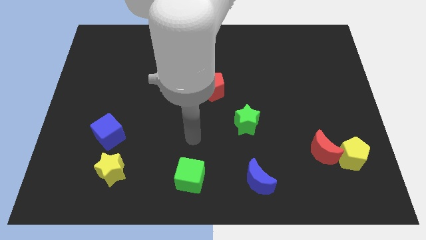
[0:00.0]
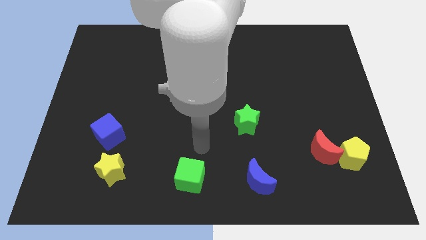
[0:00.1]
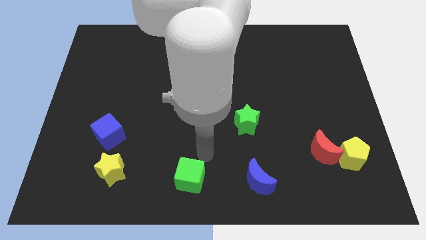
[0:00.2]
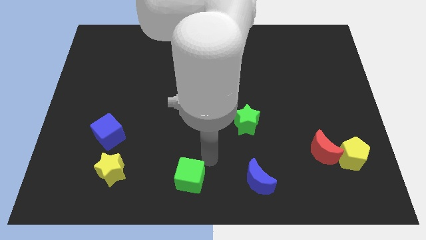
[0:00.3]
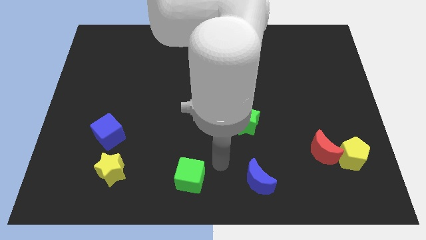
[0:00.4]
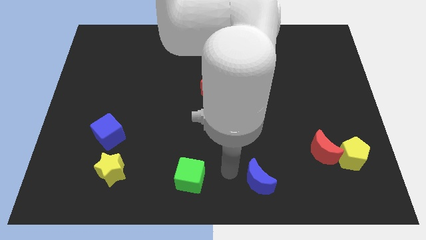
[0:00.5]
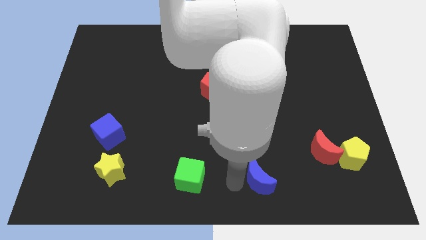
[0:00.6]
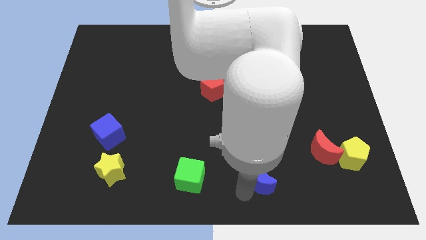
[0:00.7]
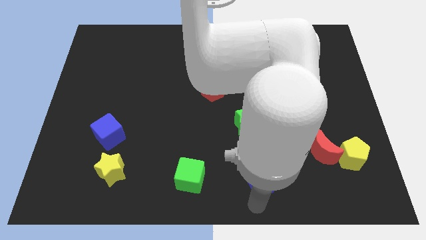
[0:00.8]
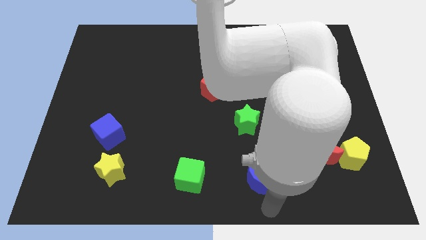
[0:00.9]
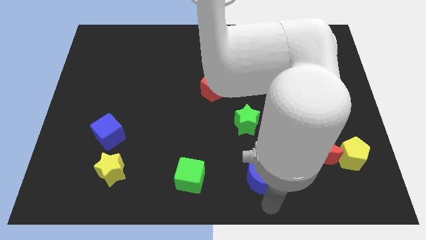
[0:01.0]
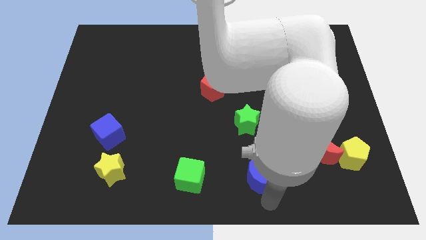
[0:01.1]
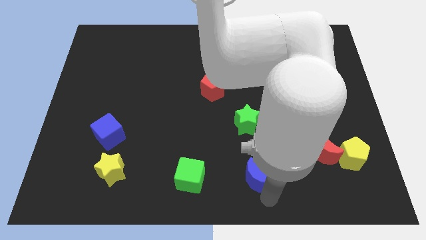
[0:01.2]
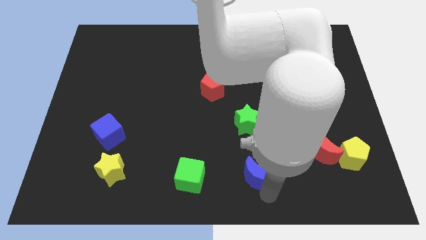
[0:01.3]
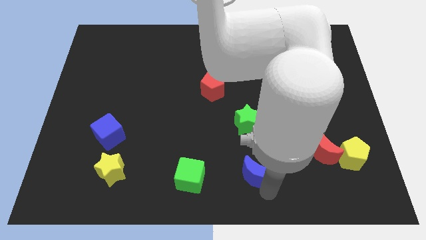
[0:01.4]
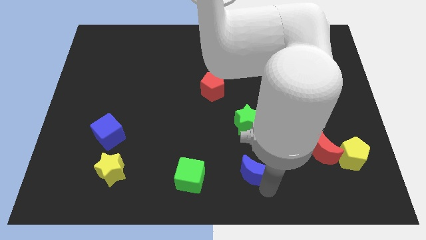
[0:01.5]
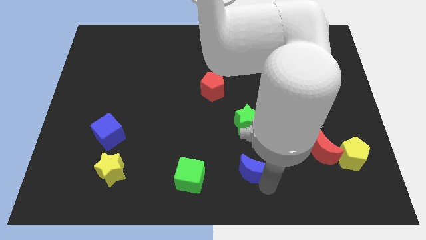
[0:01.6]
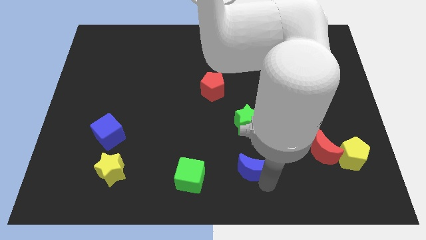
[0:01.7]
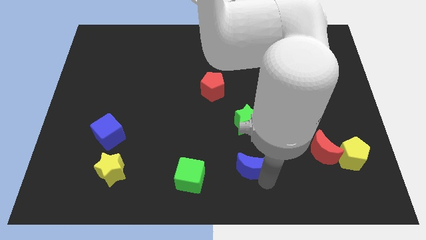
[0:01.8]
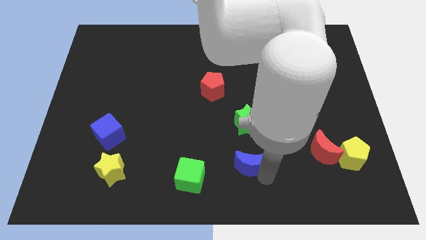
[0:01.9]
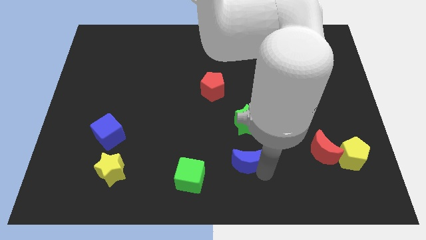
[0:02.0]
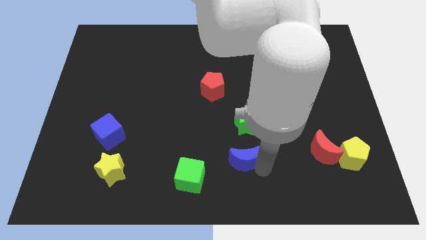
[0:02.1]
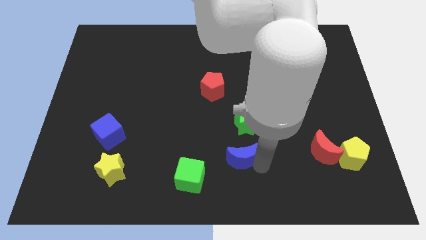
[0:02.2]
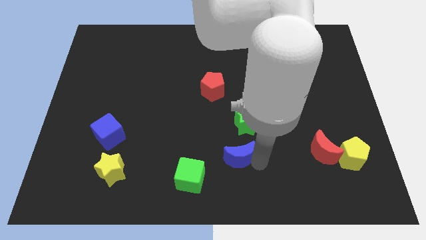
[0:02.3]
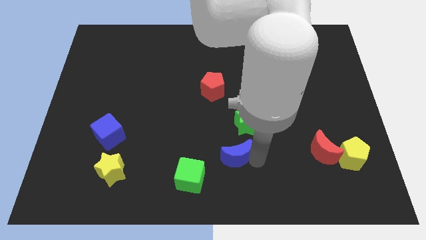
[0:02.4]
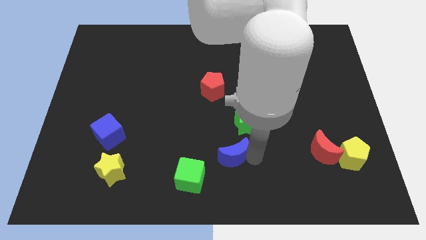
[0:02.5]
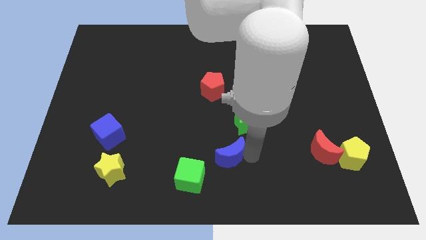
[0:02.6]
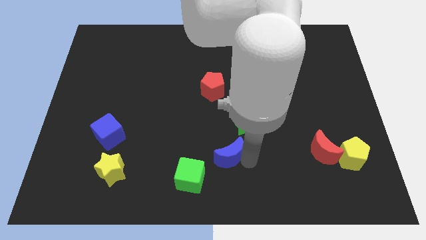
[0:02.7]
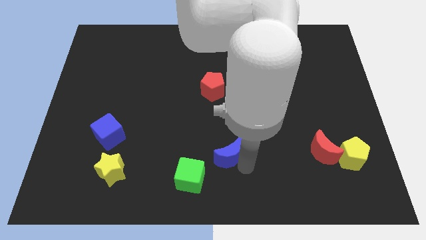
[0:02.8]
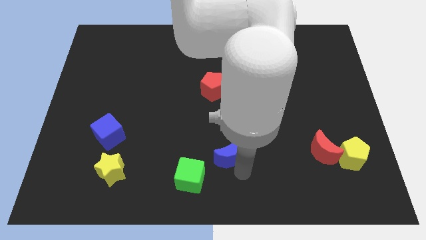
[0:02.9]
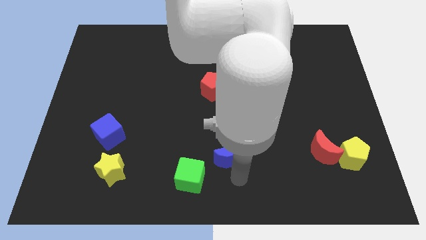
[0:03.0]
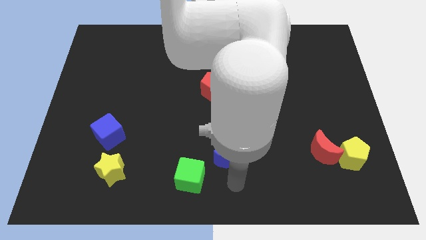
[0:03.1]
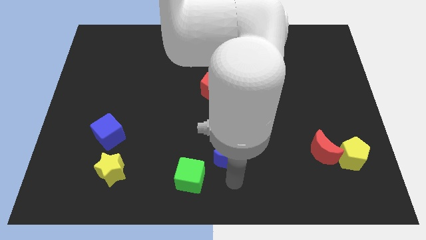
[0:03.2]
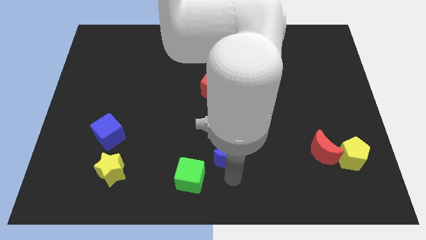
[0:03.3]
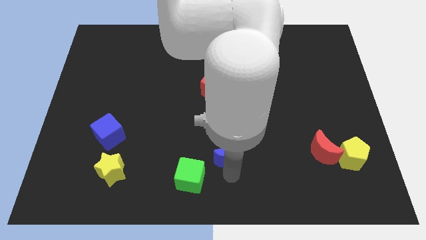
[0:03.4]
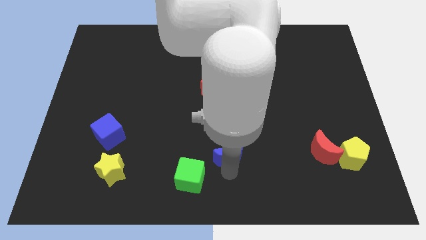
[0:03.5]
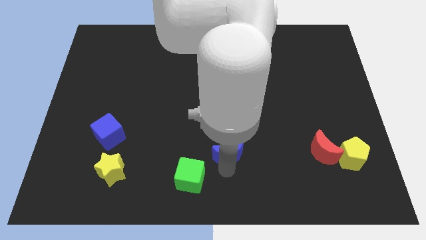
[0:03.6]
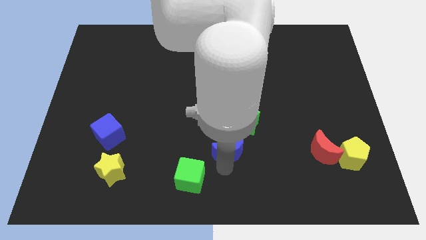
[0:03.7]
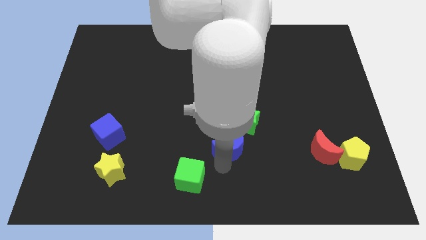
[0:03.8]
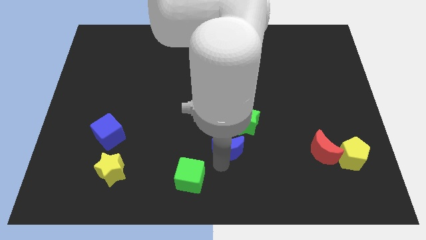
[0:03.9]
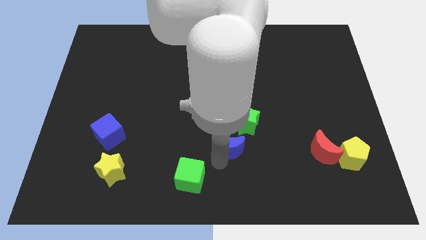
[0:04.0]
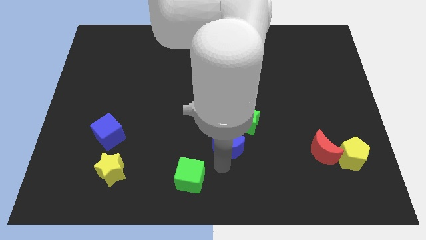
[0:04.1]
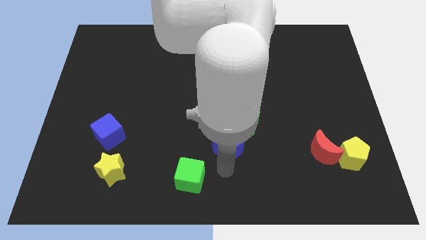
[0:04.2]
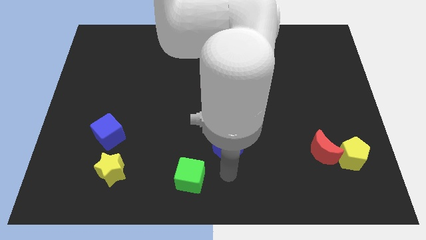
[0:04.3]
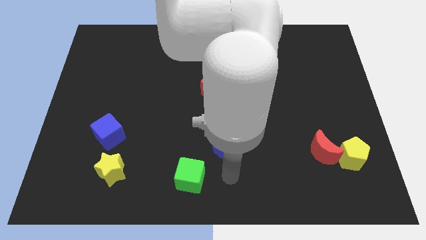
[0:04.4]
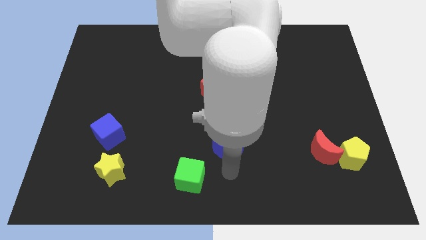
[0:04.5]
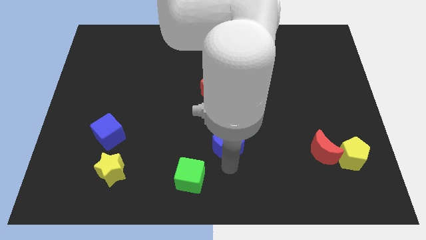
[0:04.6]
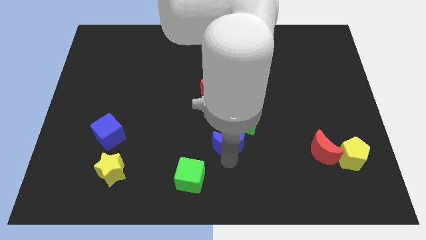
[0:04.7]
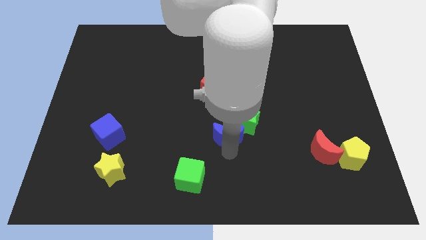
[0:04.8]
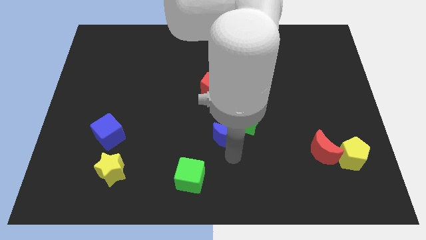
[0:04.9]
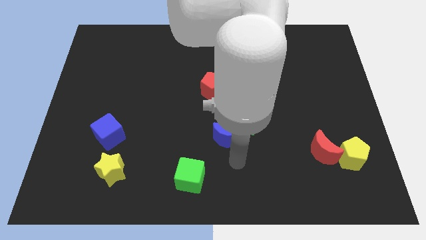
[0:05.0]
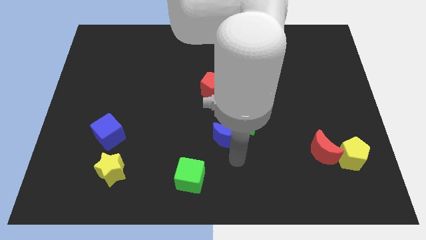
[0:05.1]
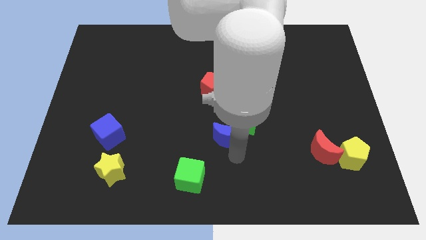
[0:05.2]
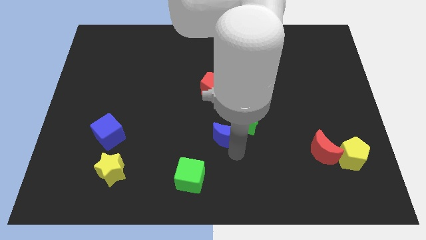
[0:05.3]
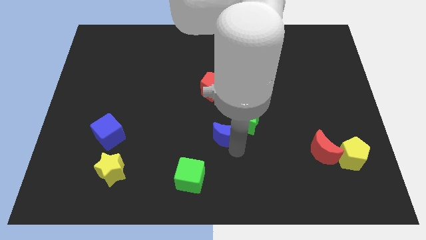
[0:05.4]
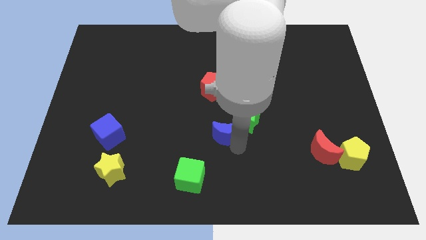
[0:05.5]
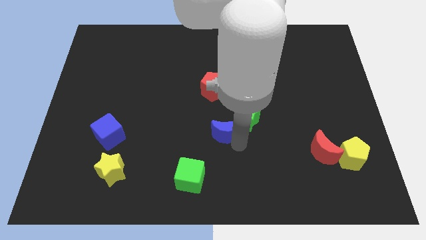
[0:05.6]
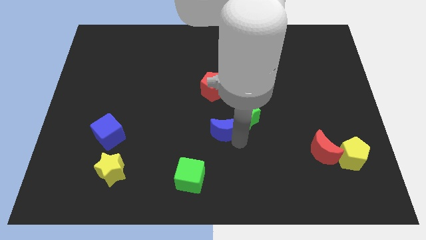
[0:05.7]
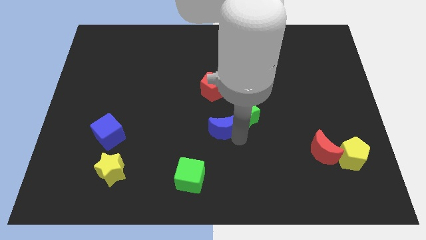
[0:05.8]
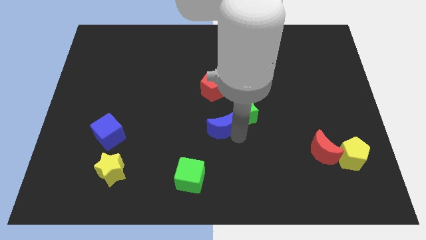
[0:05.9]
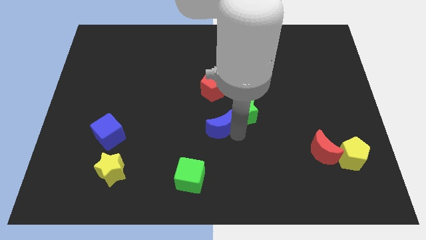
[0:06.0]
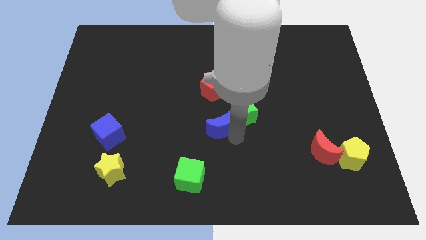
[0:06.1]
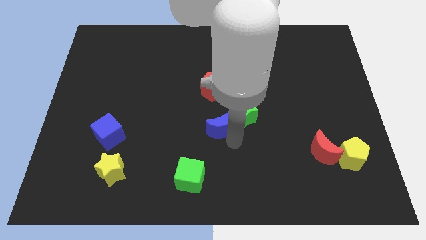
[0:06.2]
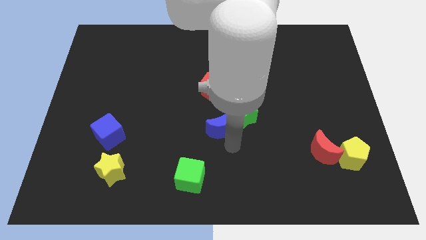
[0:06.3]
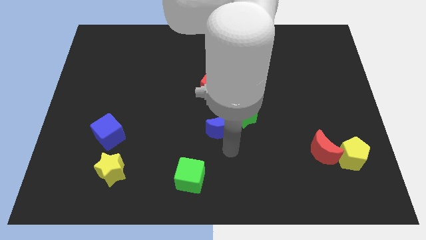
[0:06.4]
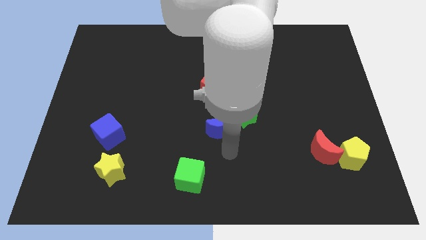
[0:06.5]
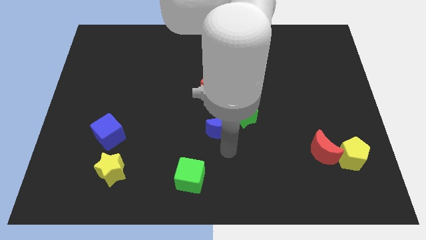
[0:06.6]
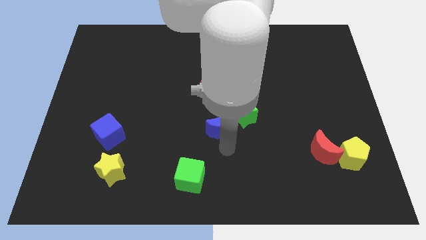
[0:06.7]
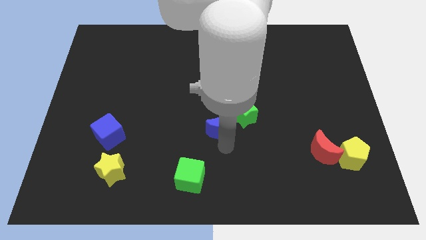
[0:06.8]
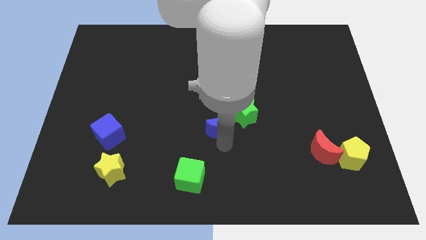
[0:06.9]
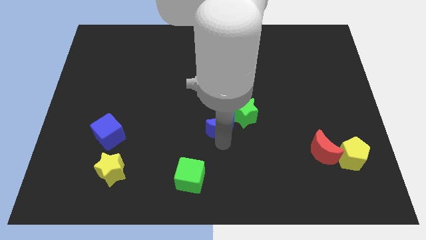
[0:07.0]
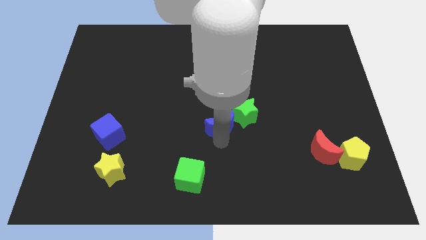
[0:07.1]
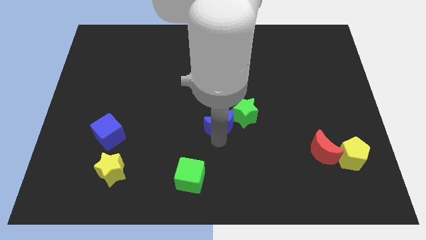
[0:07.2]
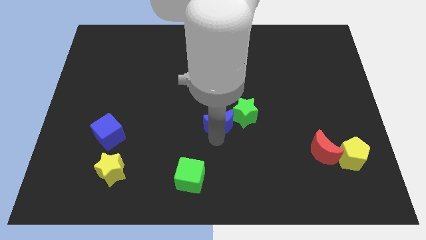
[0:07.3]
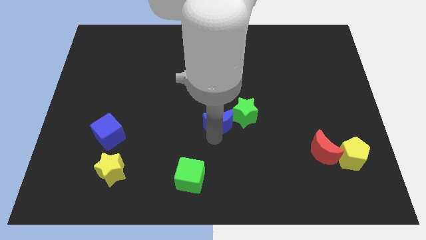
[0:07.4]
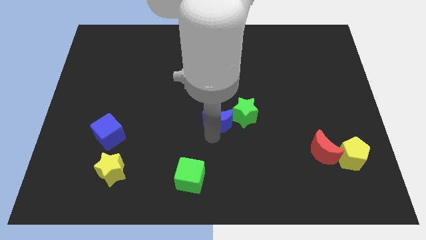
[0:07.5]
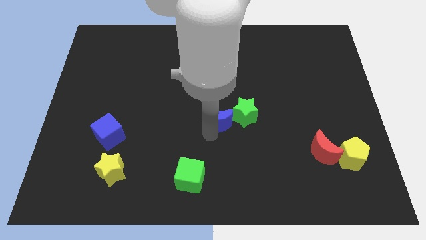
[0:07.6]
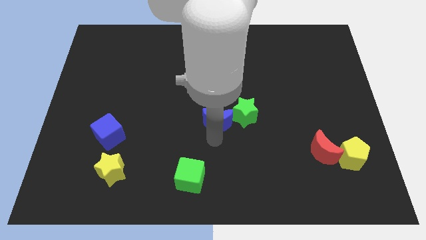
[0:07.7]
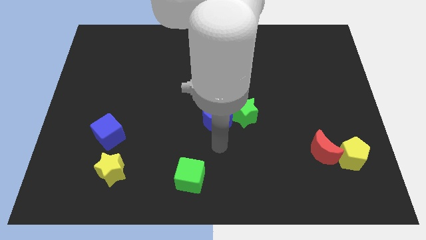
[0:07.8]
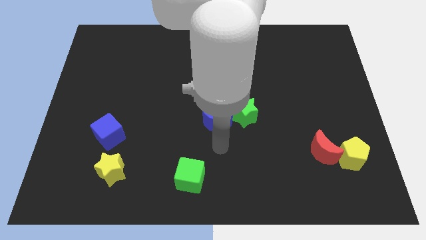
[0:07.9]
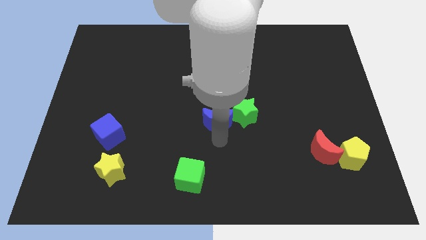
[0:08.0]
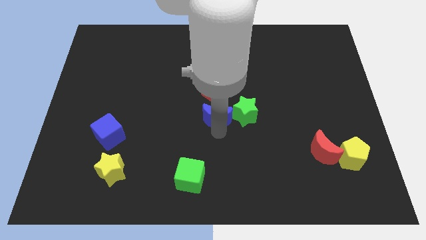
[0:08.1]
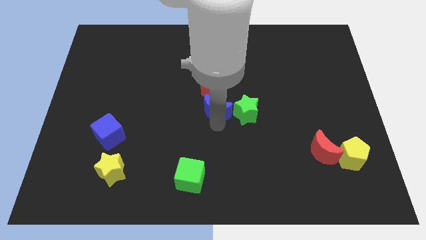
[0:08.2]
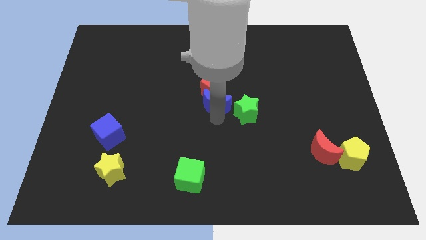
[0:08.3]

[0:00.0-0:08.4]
put the blue moon towards the red pentagon
